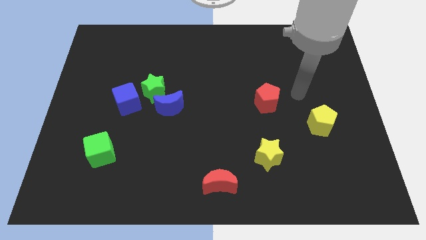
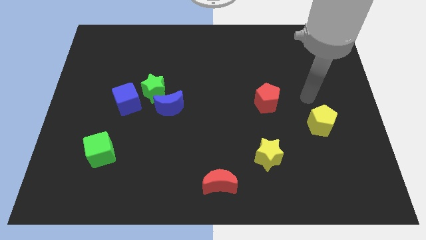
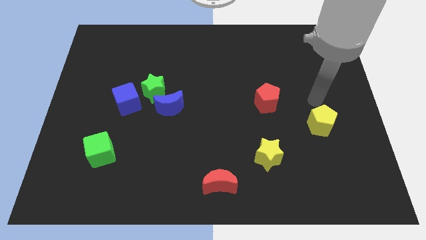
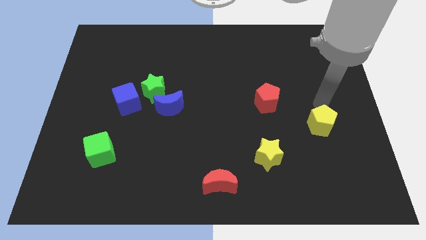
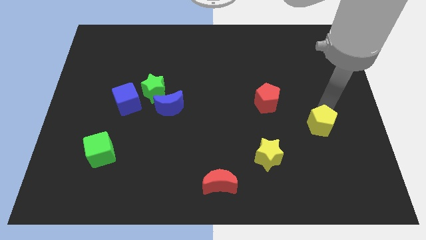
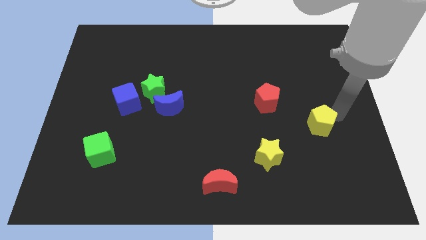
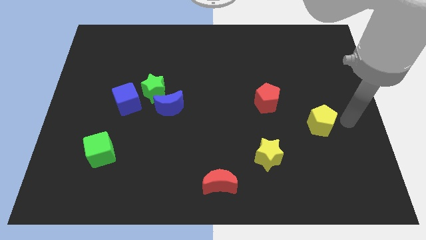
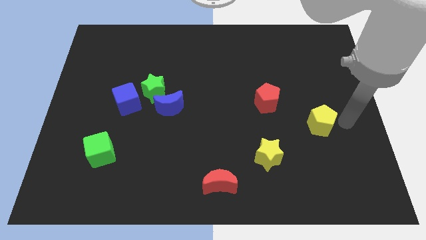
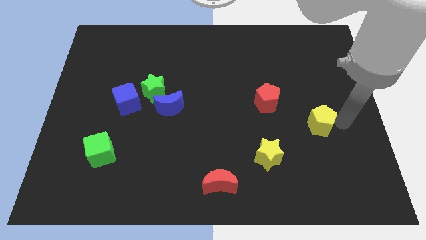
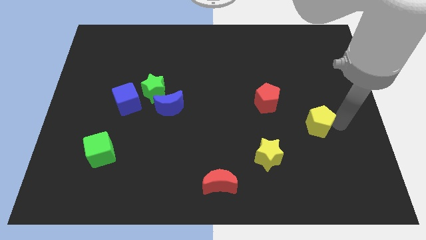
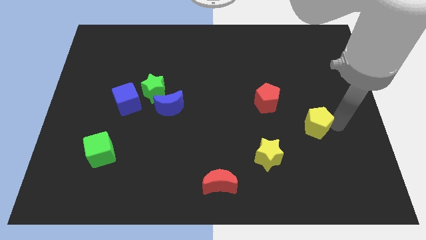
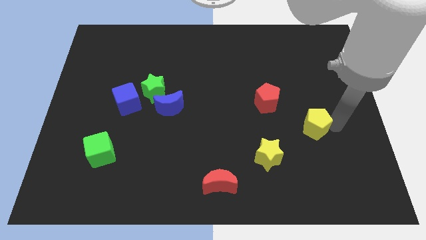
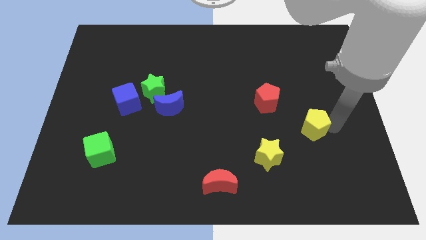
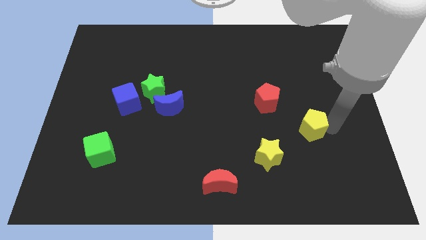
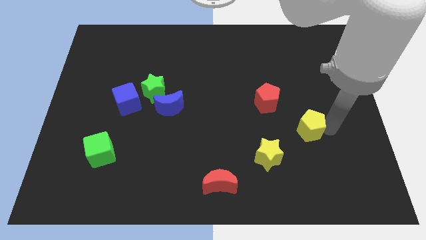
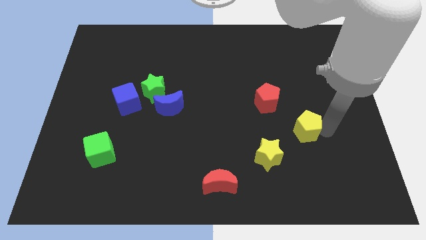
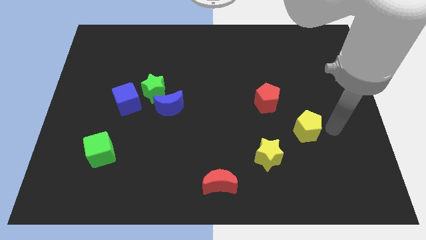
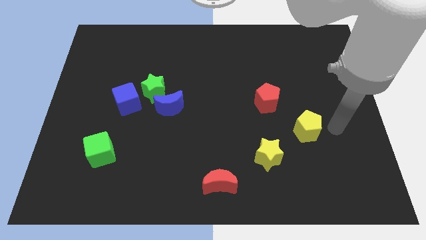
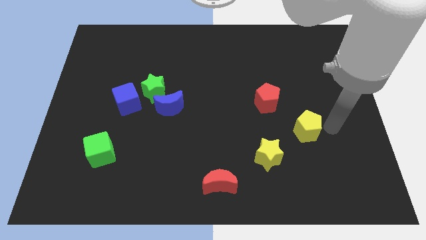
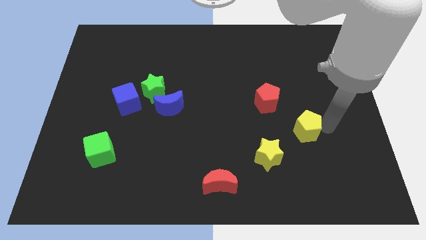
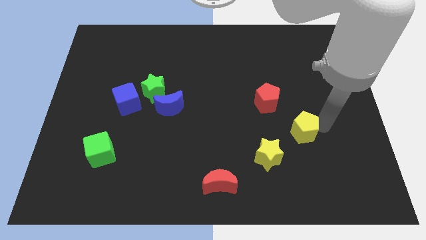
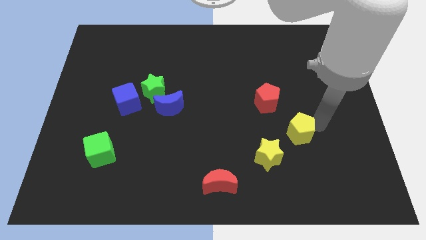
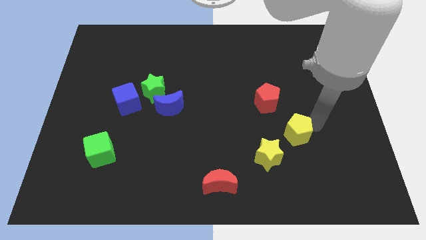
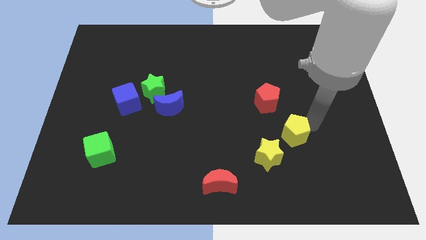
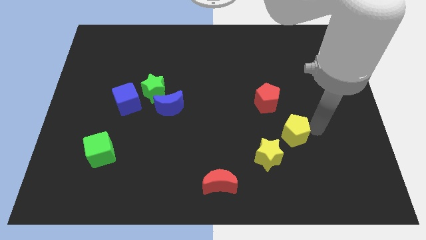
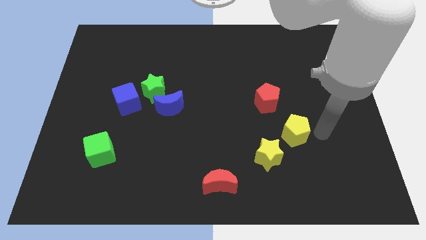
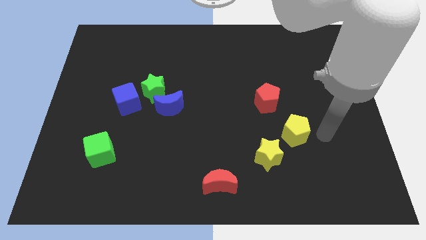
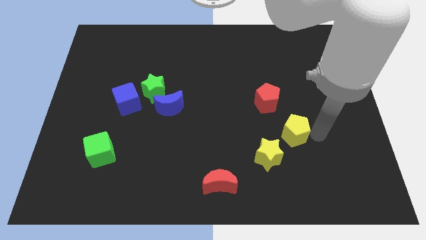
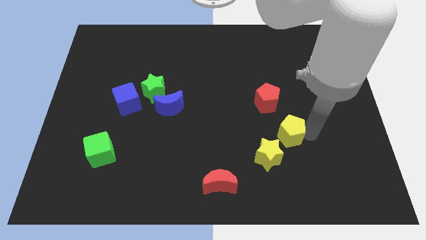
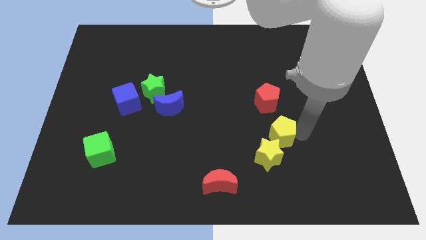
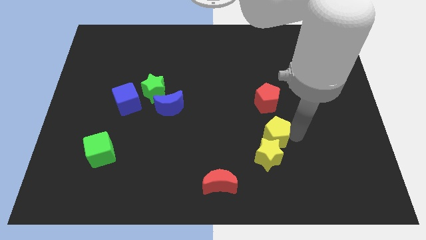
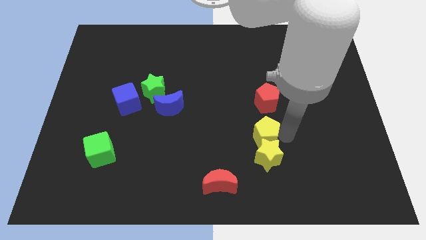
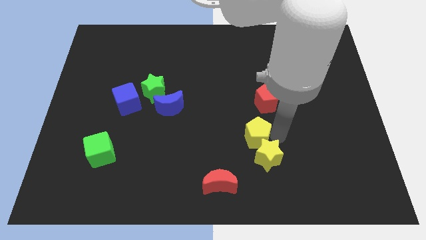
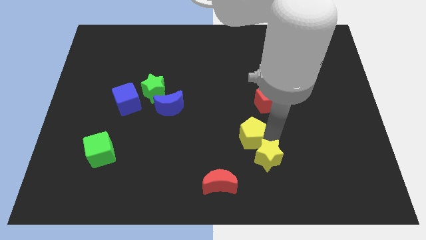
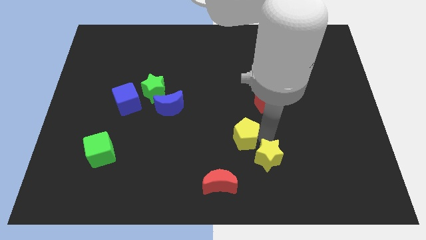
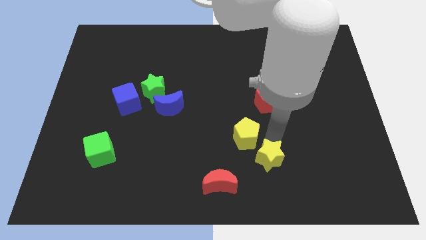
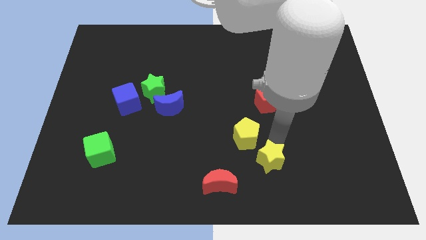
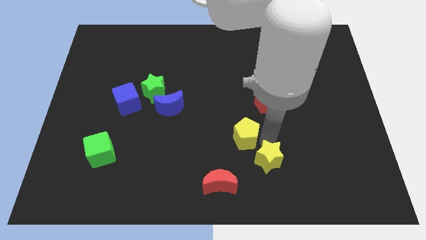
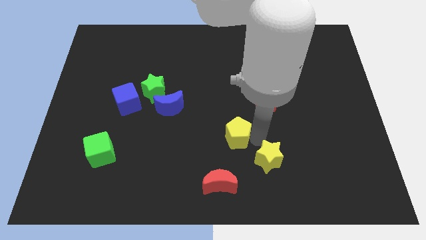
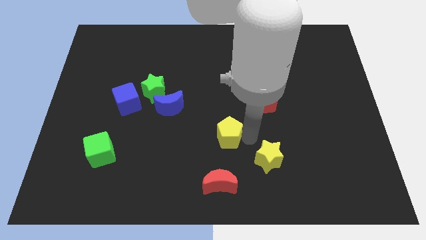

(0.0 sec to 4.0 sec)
push the yellow pentagon left

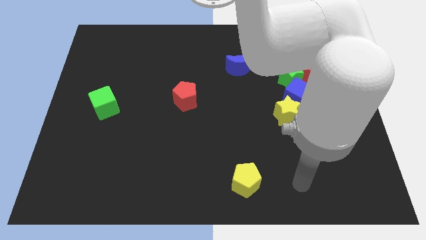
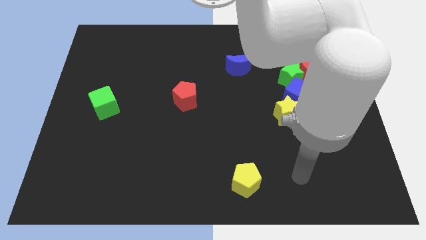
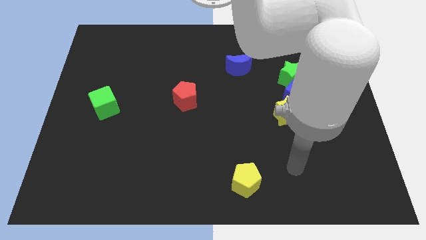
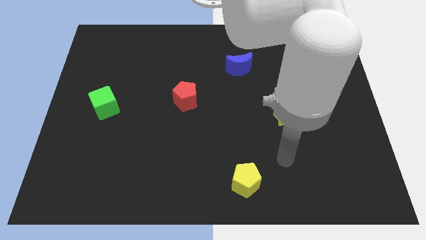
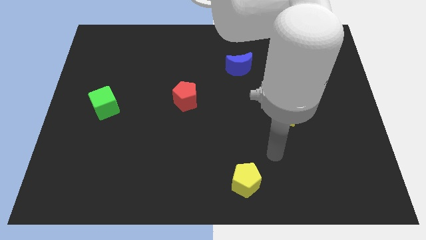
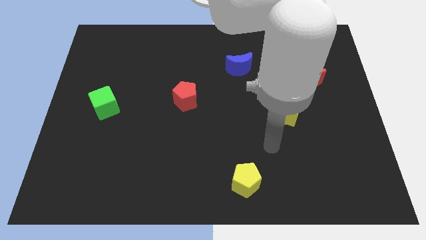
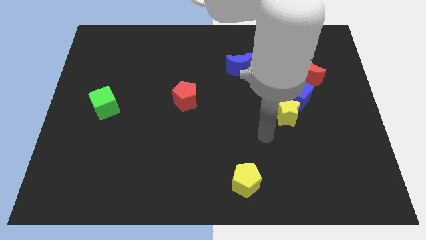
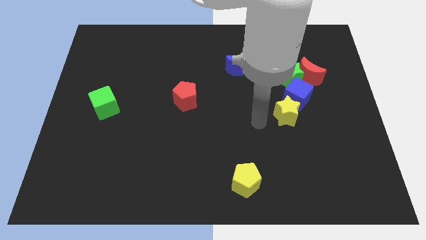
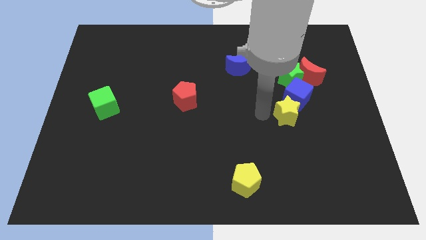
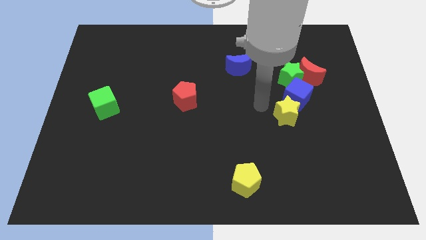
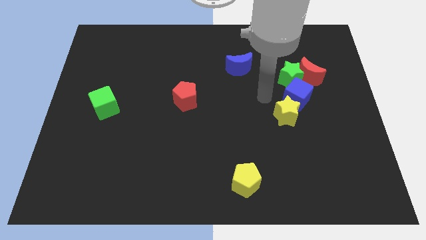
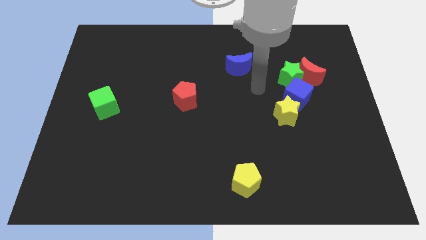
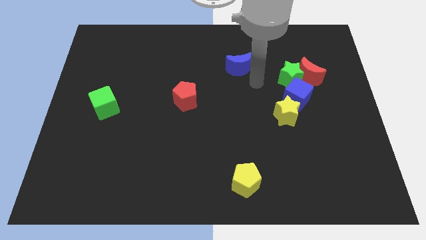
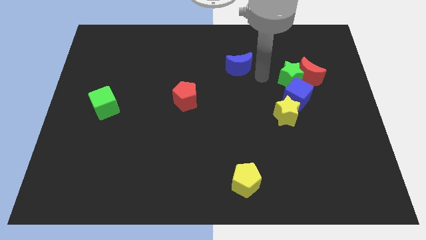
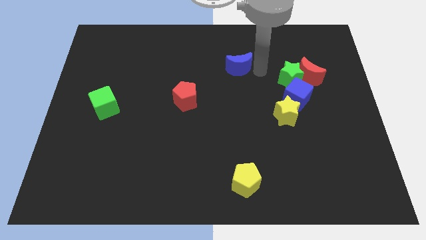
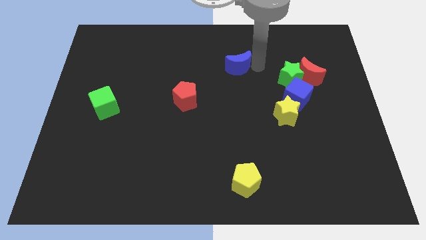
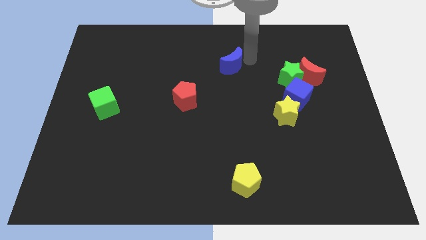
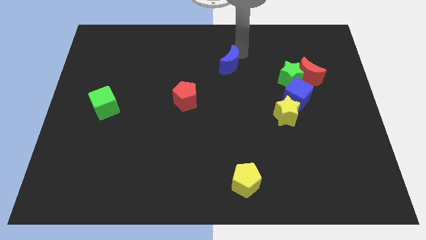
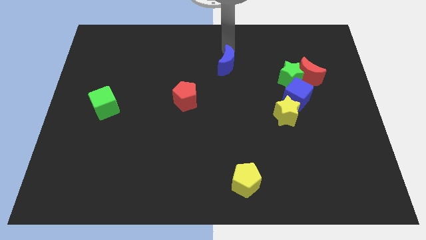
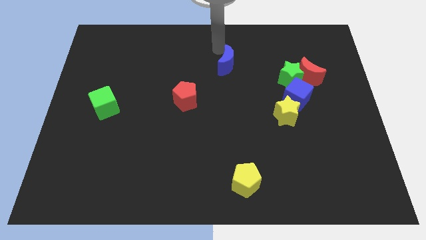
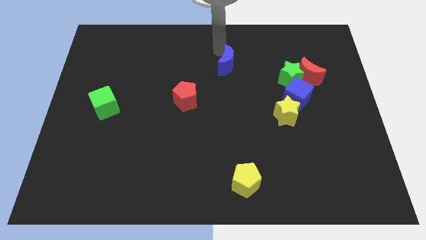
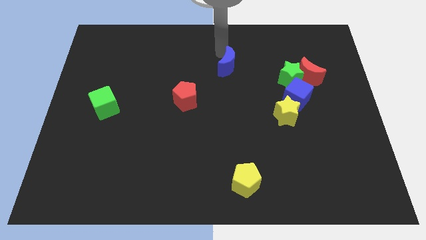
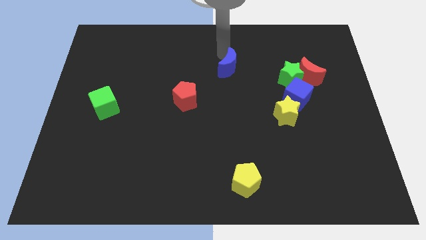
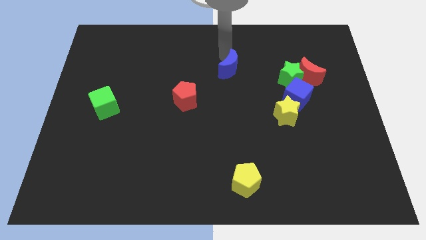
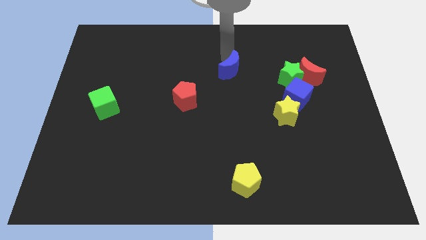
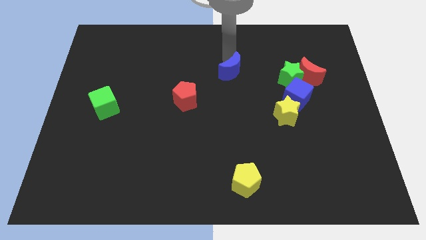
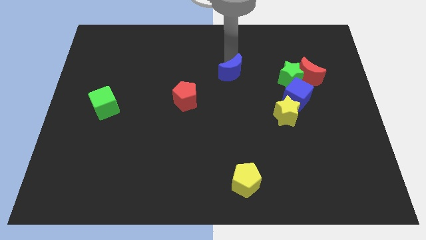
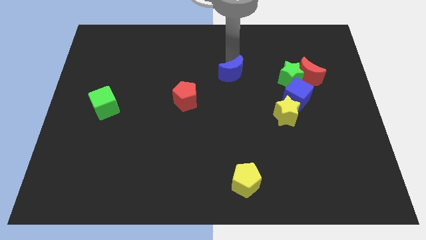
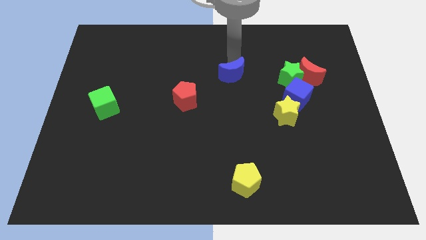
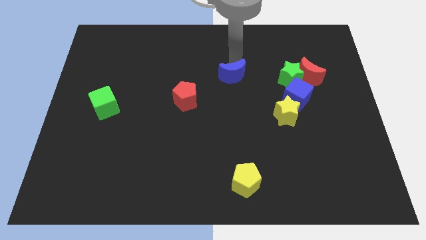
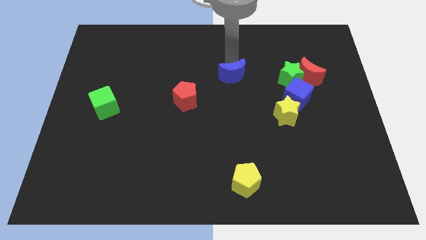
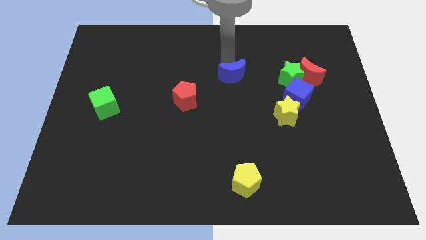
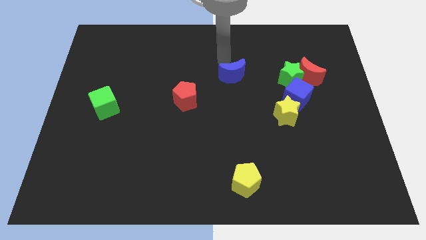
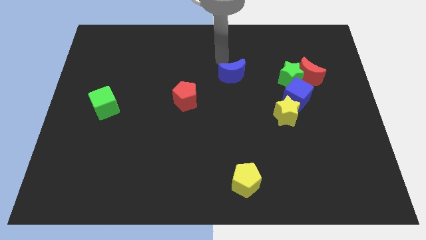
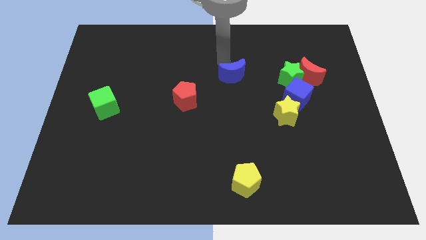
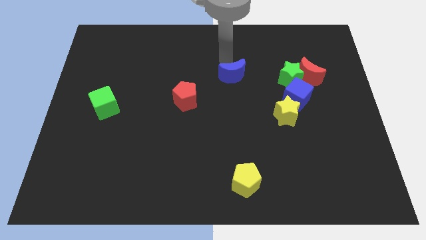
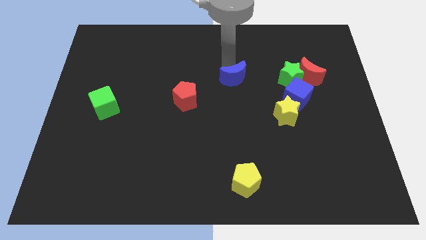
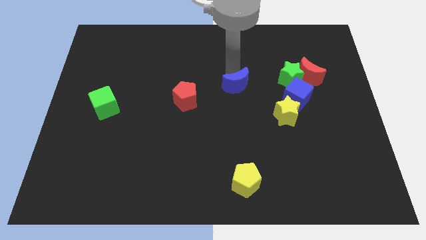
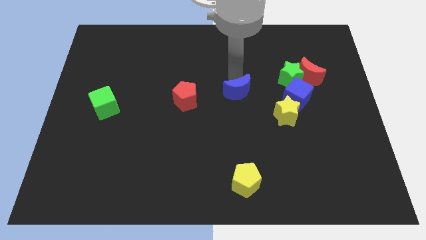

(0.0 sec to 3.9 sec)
push the blue moon downwards a little

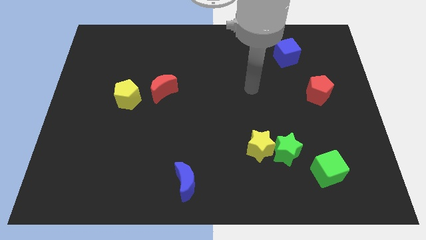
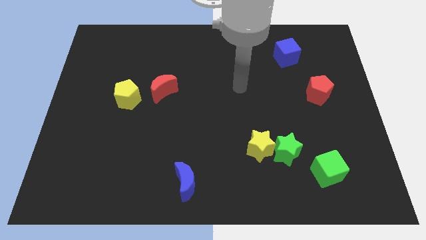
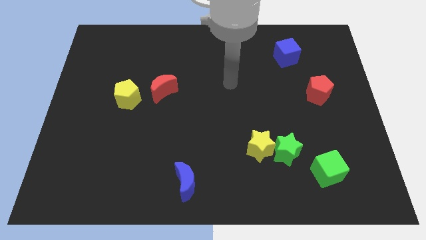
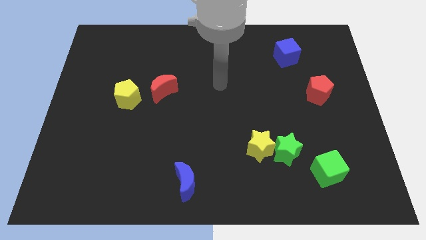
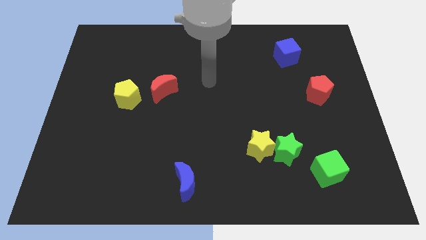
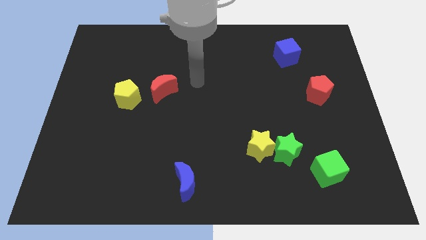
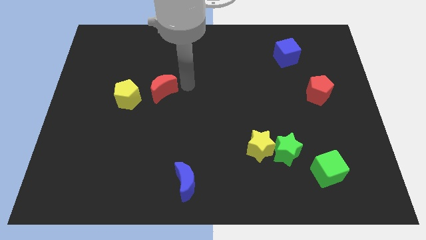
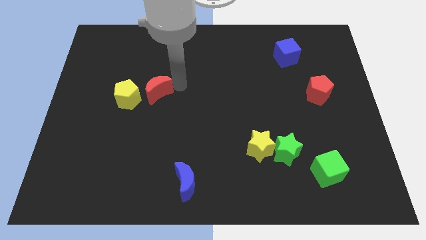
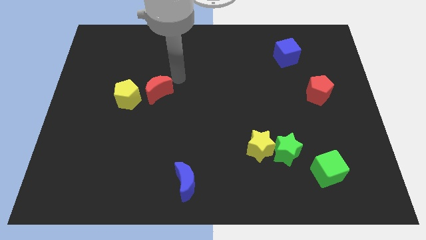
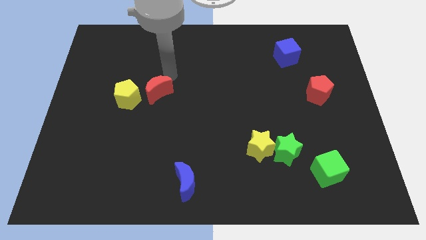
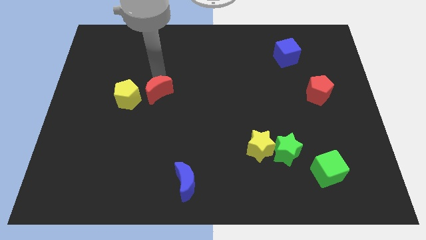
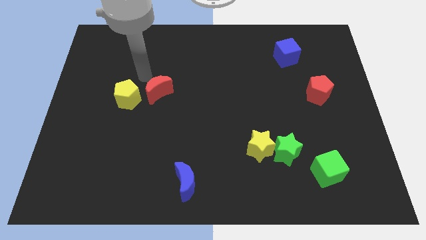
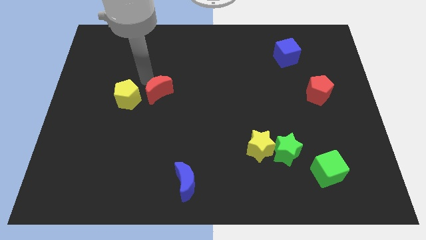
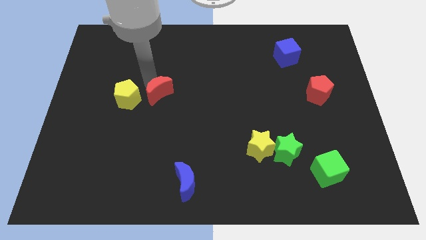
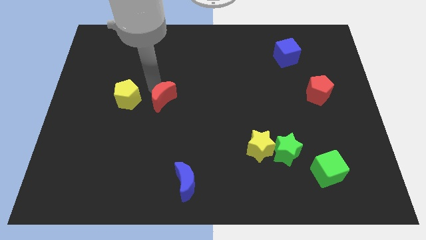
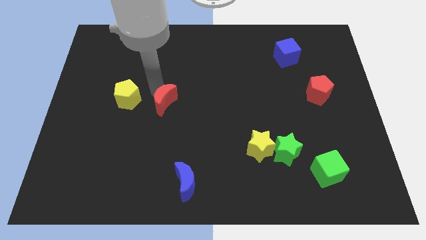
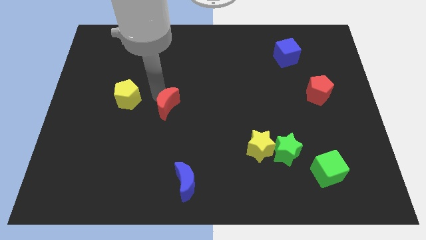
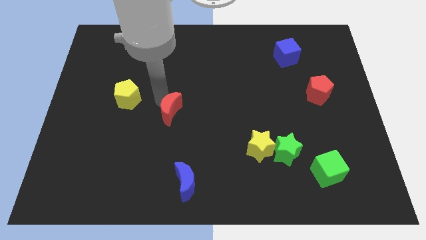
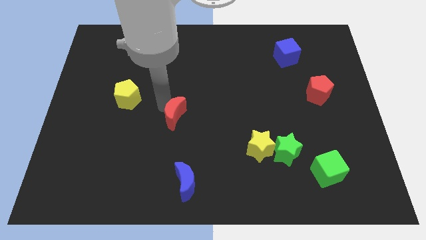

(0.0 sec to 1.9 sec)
slightly push the red moon diagonally down and to the right
